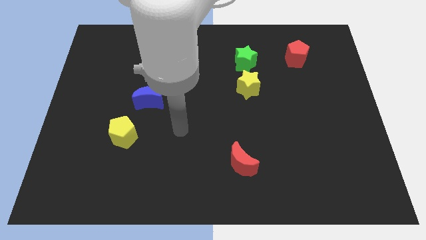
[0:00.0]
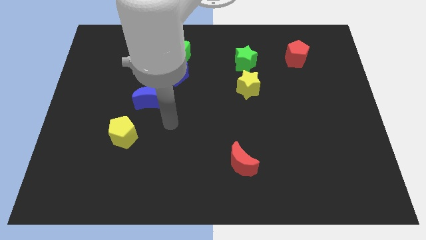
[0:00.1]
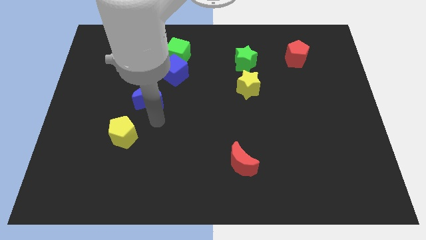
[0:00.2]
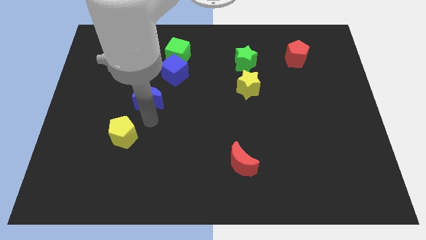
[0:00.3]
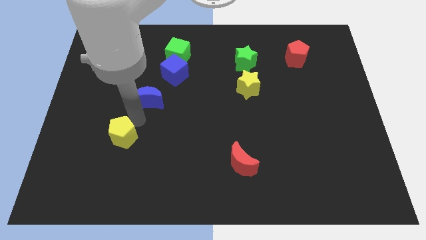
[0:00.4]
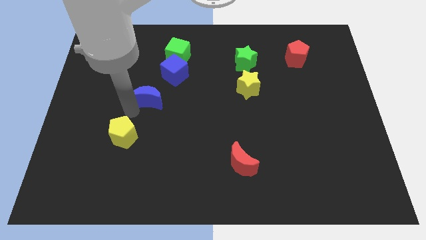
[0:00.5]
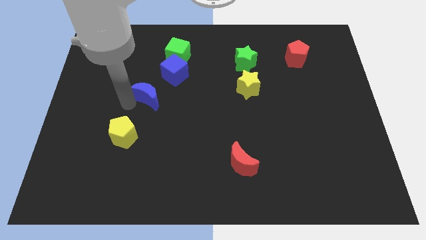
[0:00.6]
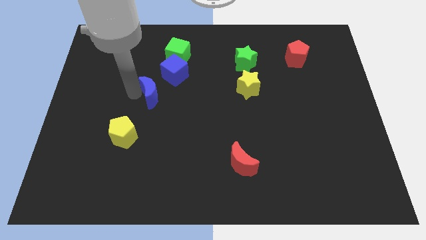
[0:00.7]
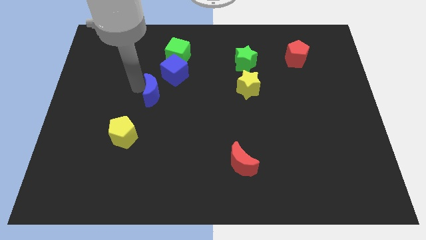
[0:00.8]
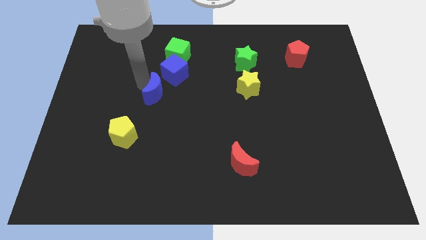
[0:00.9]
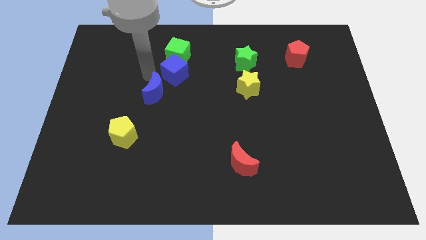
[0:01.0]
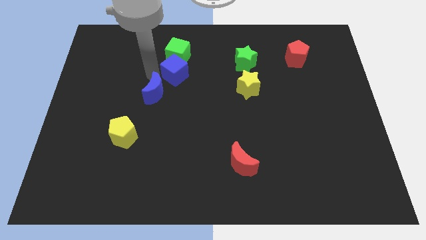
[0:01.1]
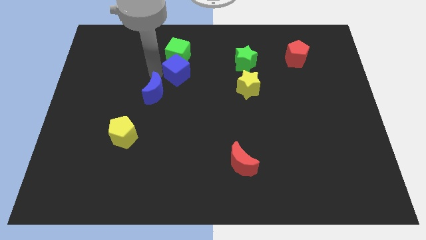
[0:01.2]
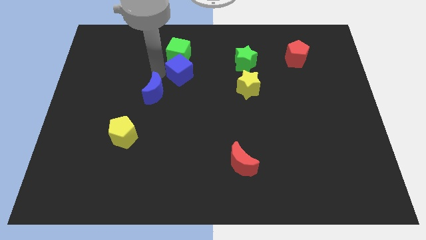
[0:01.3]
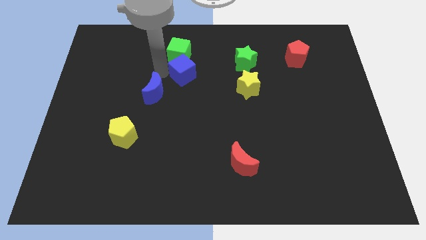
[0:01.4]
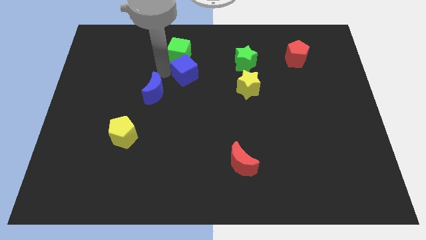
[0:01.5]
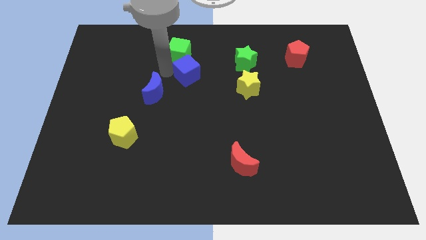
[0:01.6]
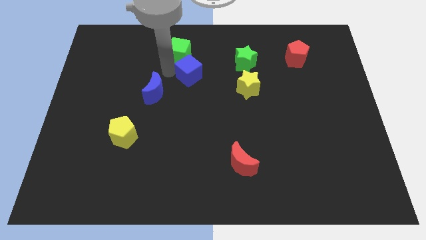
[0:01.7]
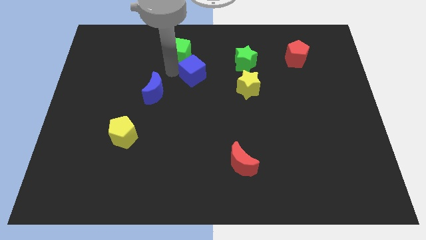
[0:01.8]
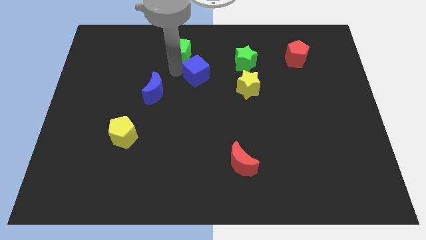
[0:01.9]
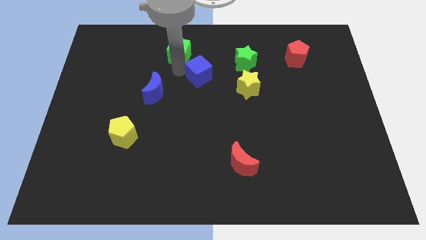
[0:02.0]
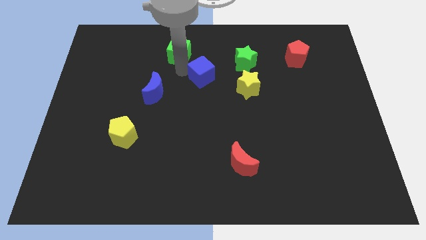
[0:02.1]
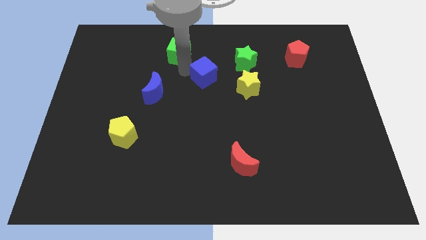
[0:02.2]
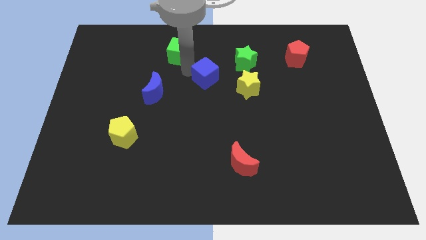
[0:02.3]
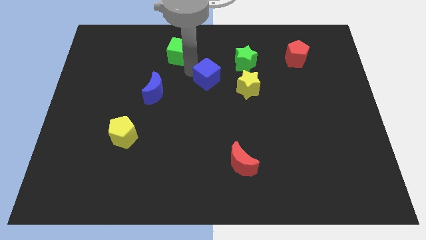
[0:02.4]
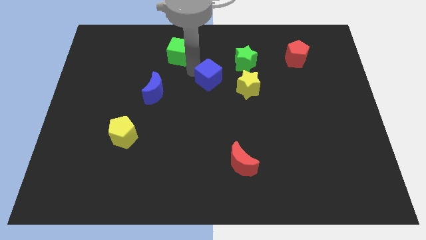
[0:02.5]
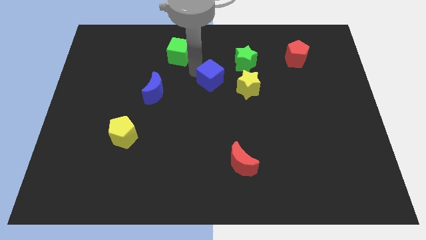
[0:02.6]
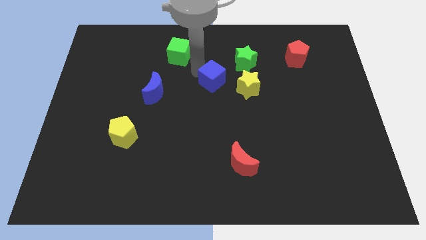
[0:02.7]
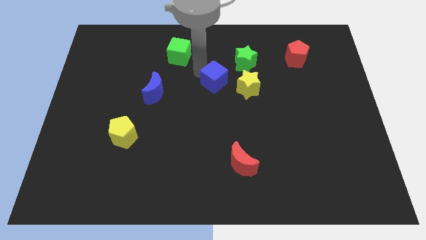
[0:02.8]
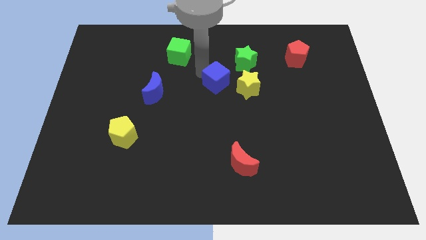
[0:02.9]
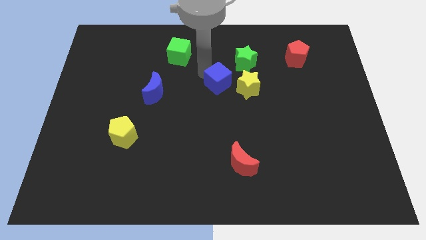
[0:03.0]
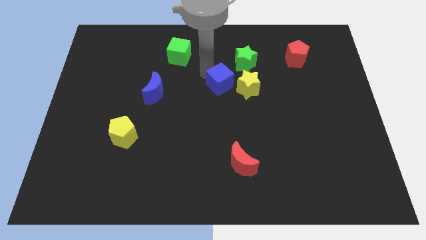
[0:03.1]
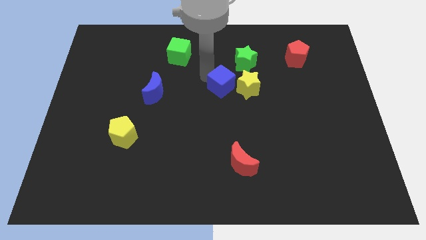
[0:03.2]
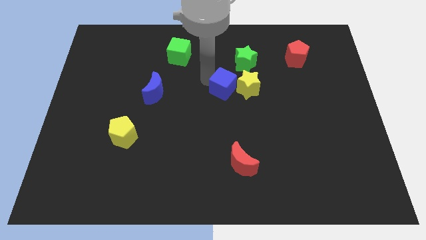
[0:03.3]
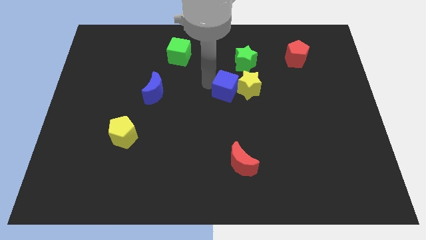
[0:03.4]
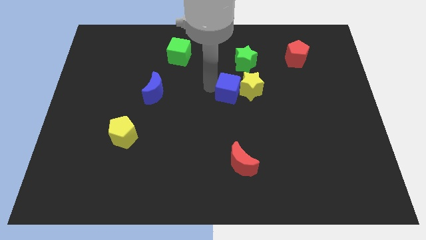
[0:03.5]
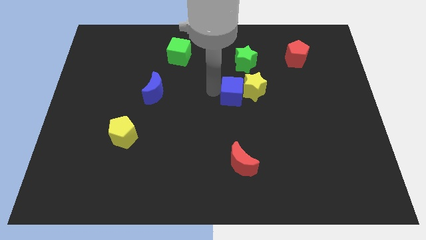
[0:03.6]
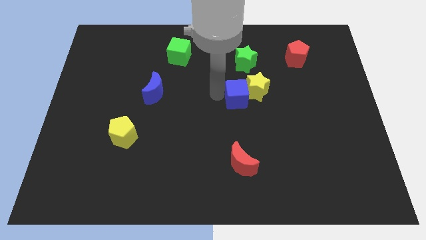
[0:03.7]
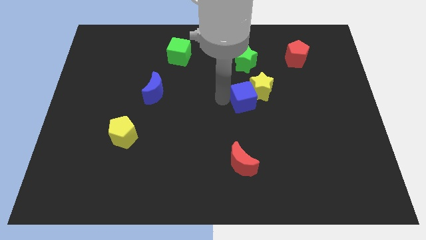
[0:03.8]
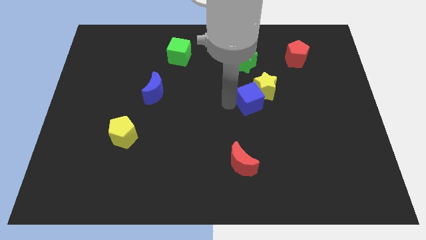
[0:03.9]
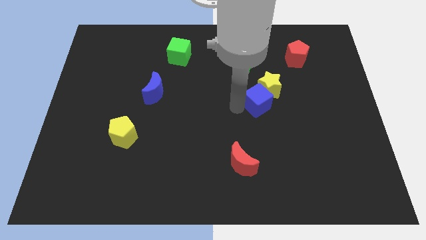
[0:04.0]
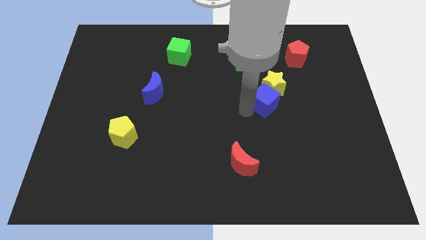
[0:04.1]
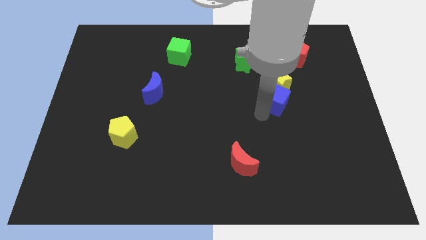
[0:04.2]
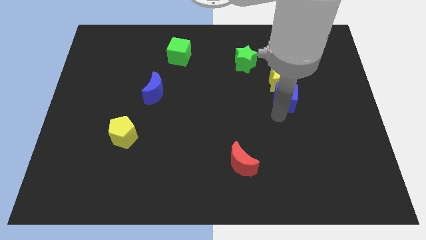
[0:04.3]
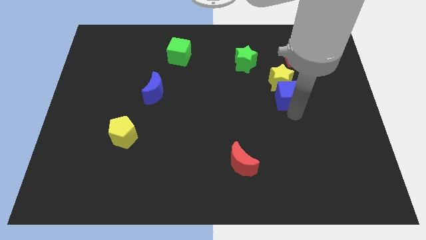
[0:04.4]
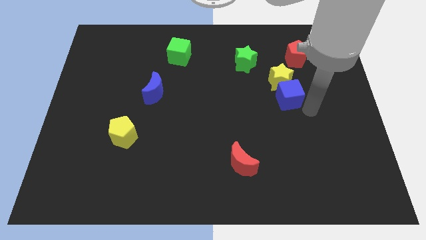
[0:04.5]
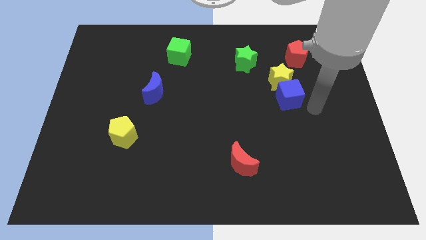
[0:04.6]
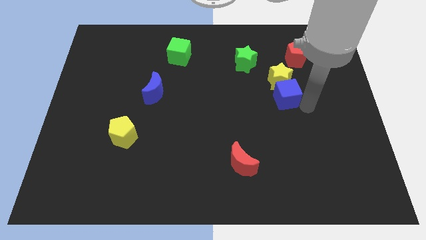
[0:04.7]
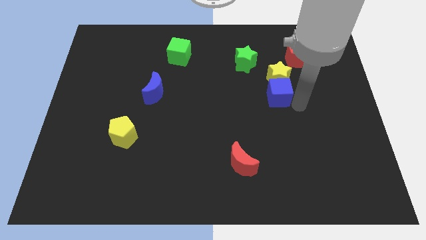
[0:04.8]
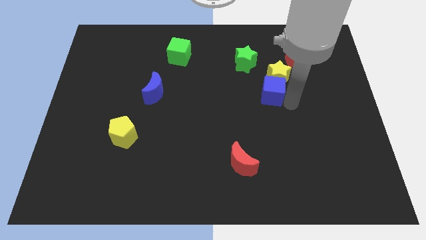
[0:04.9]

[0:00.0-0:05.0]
slide the blue cube to the bottom right of the green star

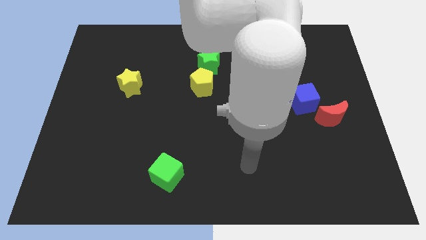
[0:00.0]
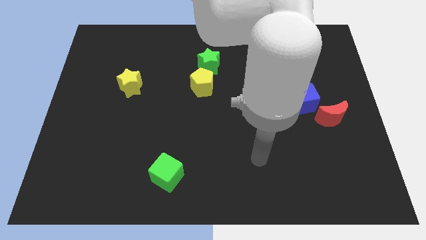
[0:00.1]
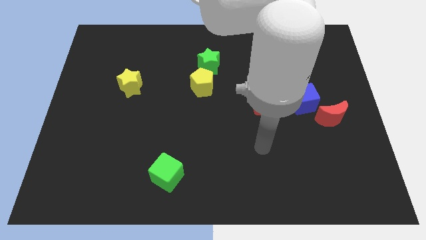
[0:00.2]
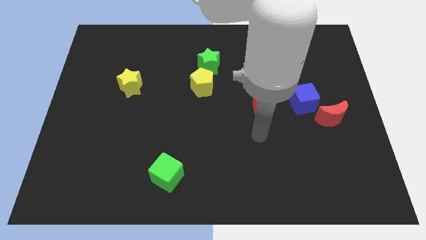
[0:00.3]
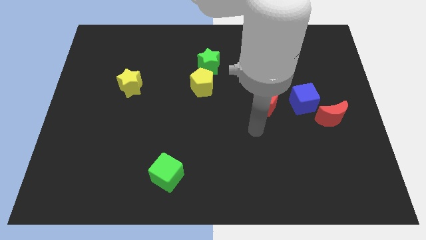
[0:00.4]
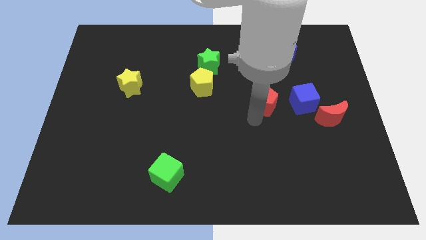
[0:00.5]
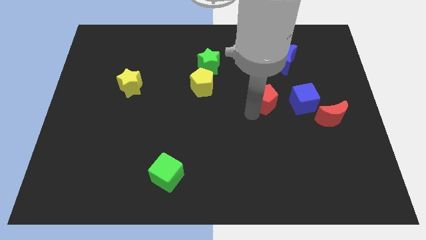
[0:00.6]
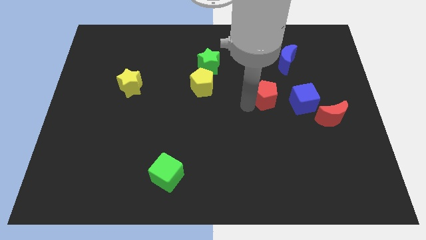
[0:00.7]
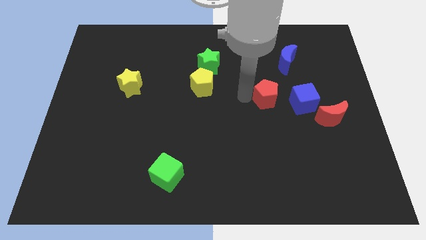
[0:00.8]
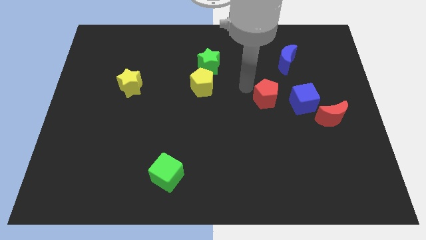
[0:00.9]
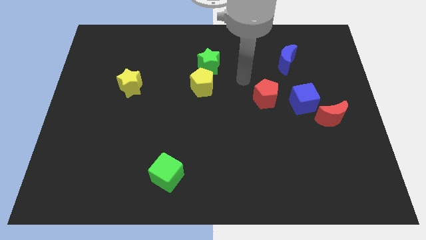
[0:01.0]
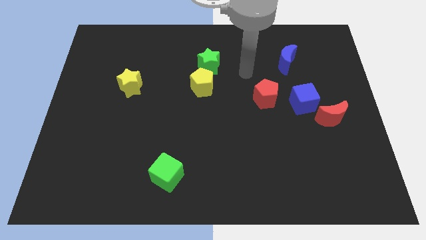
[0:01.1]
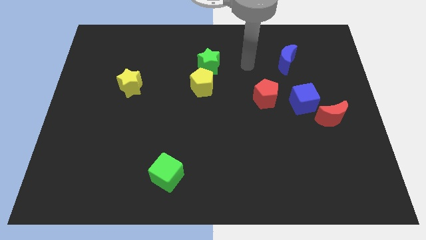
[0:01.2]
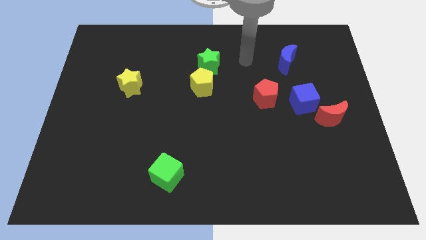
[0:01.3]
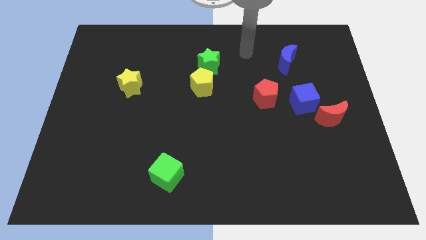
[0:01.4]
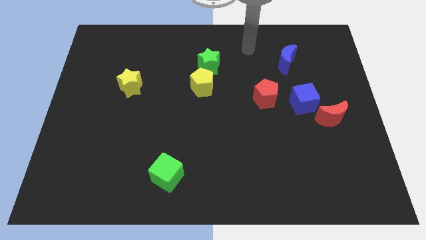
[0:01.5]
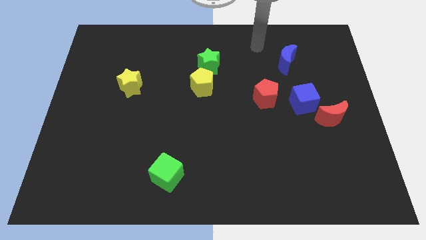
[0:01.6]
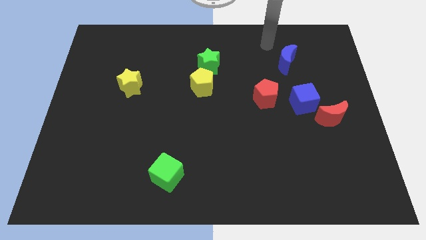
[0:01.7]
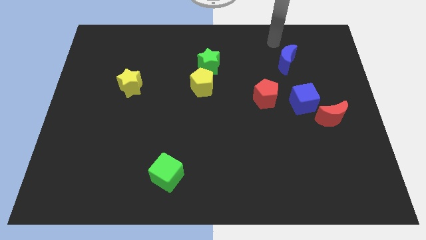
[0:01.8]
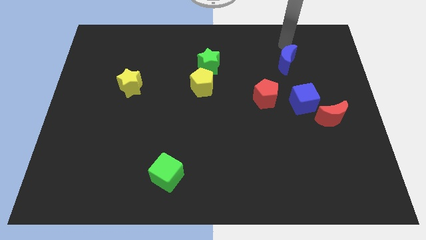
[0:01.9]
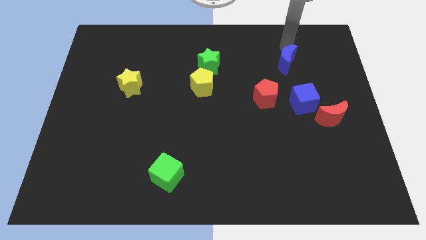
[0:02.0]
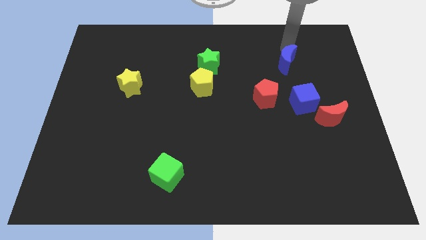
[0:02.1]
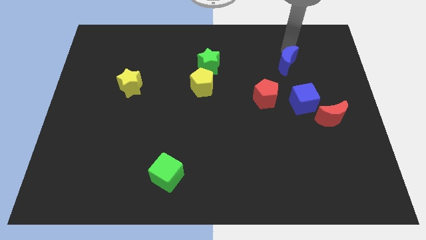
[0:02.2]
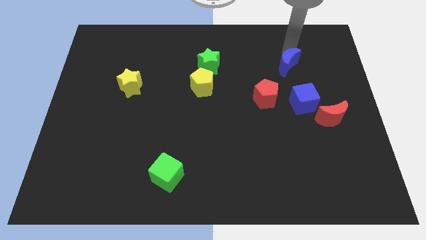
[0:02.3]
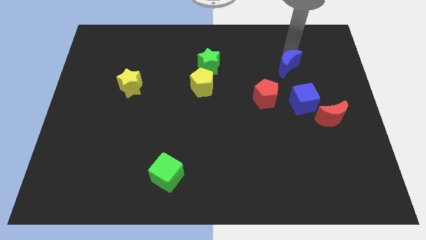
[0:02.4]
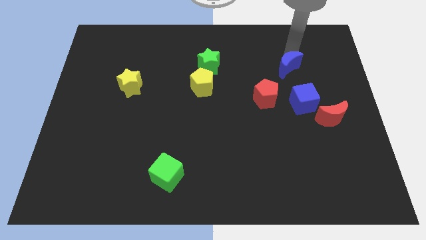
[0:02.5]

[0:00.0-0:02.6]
slide the blue moon diagonally up and to the right of the red pentagon
